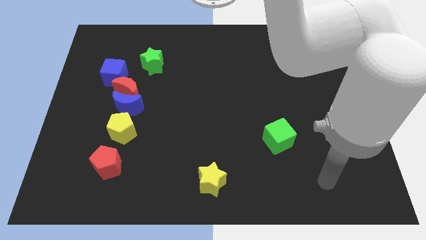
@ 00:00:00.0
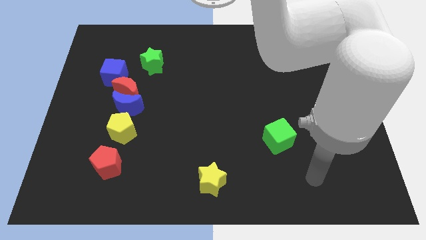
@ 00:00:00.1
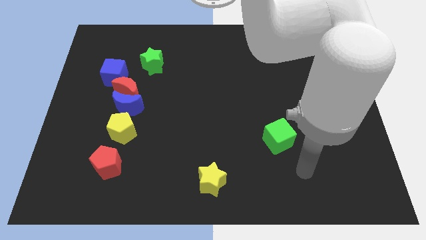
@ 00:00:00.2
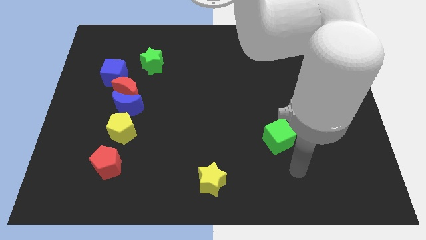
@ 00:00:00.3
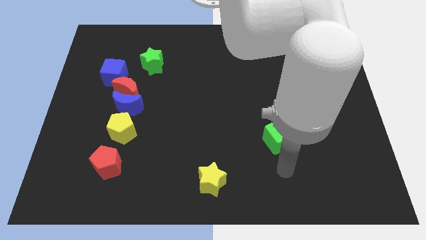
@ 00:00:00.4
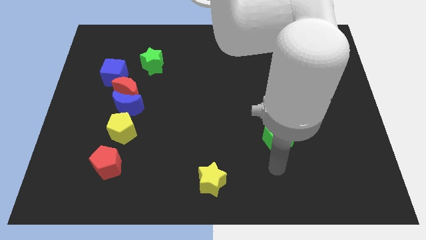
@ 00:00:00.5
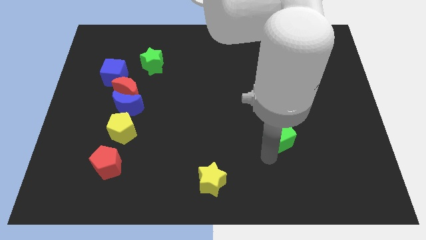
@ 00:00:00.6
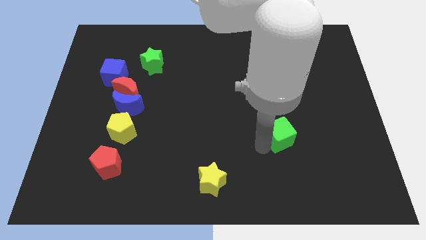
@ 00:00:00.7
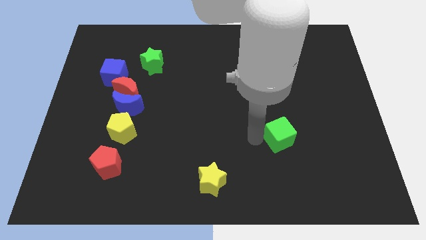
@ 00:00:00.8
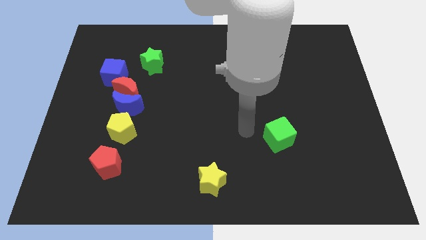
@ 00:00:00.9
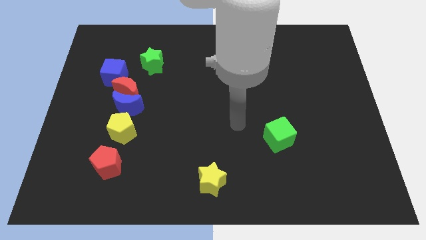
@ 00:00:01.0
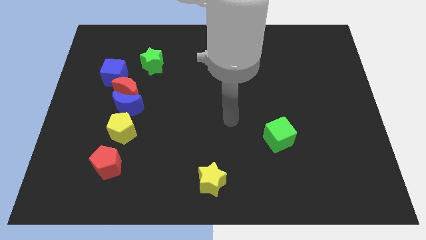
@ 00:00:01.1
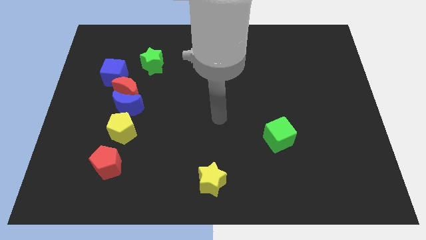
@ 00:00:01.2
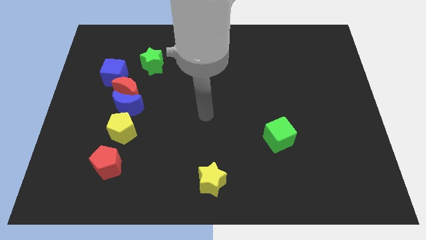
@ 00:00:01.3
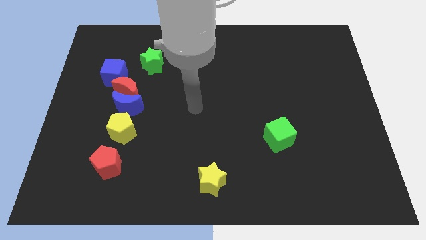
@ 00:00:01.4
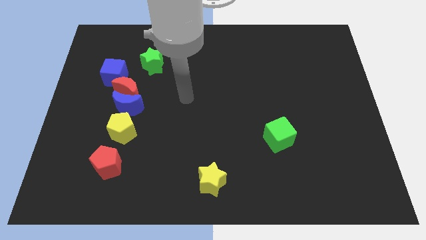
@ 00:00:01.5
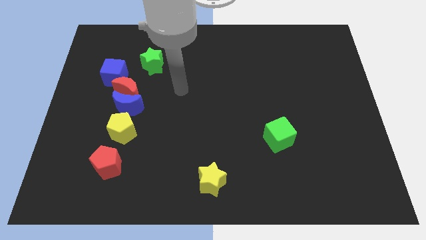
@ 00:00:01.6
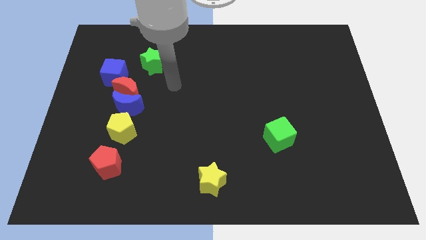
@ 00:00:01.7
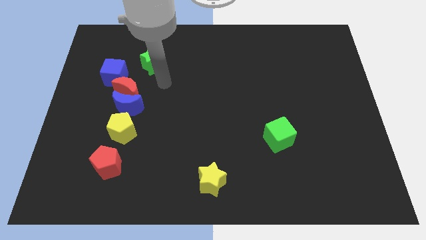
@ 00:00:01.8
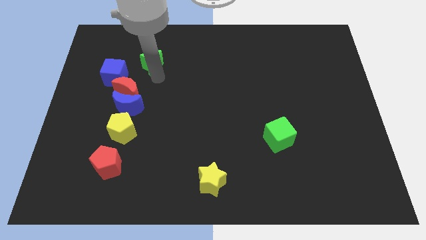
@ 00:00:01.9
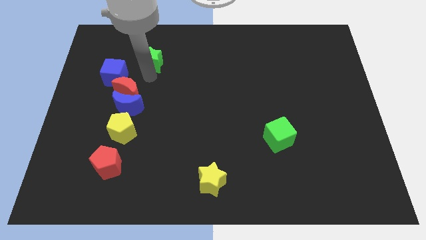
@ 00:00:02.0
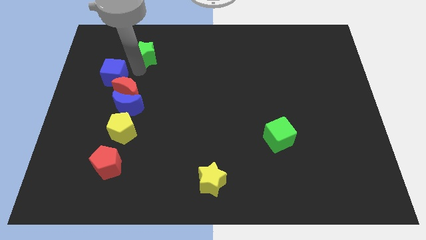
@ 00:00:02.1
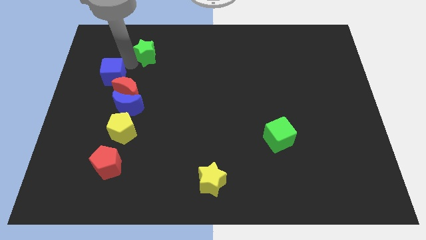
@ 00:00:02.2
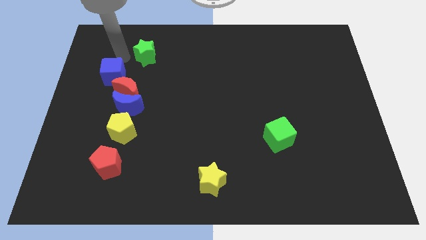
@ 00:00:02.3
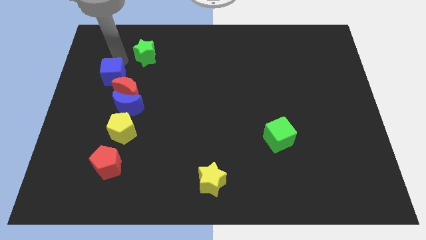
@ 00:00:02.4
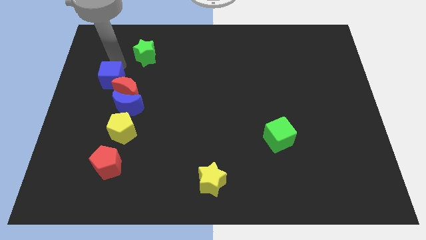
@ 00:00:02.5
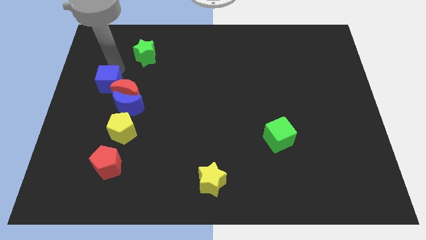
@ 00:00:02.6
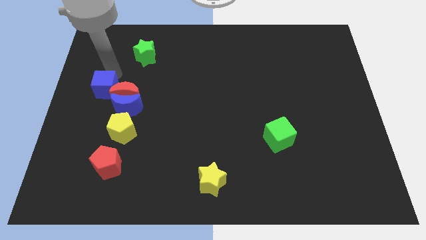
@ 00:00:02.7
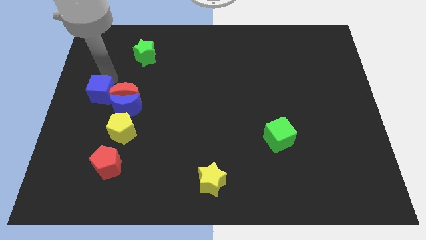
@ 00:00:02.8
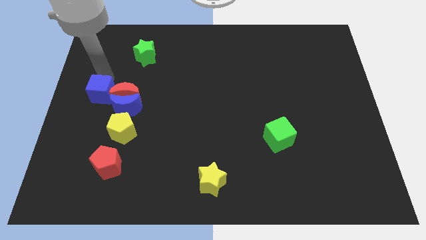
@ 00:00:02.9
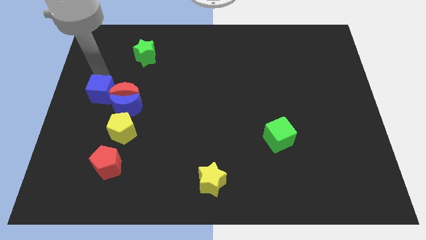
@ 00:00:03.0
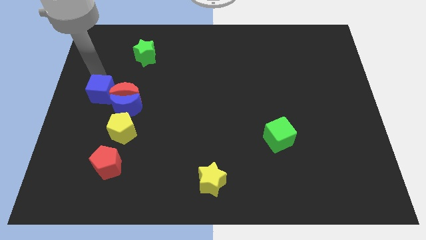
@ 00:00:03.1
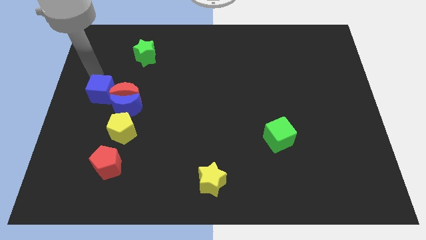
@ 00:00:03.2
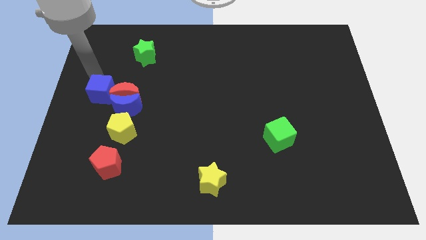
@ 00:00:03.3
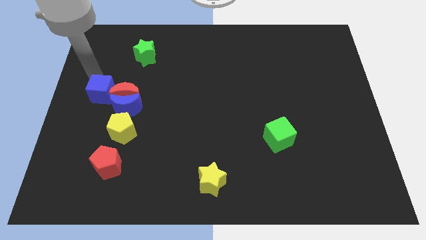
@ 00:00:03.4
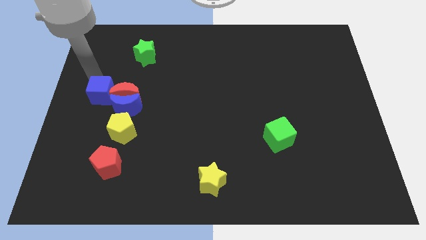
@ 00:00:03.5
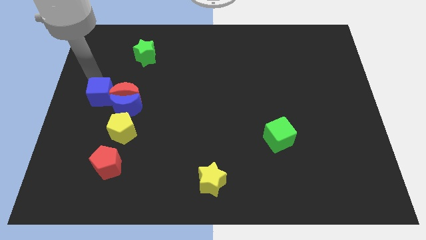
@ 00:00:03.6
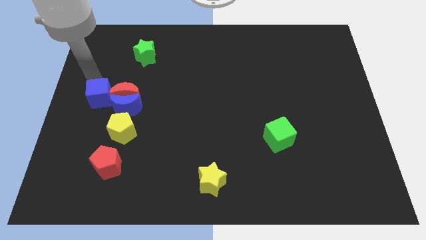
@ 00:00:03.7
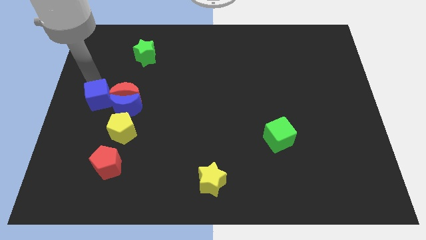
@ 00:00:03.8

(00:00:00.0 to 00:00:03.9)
push the blue cube somewhat downwards

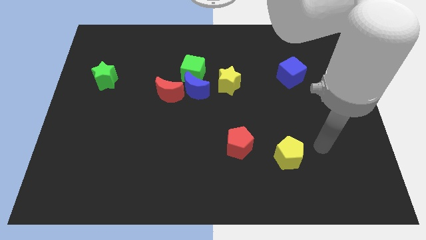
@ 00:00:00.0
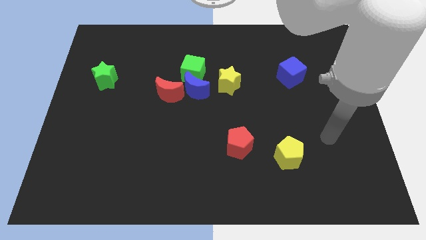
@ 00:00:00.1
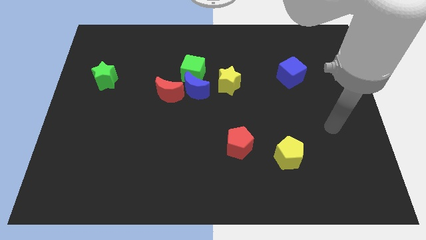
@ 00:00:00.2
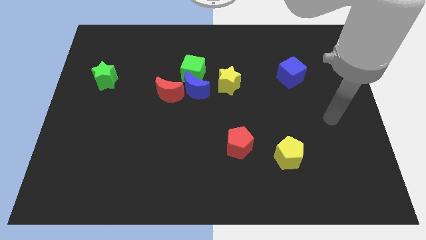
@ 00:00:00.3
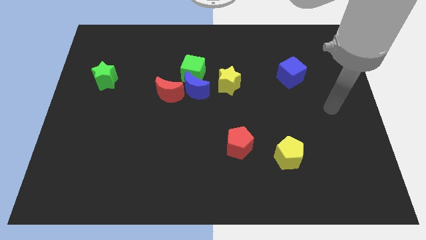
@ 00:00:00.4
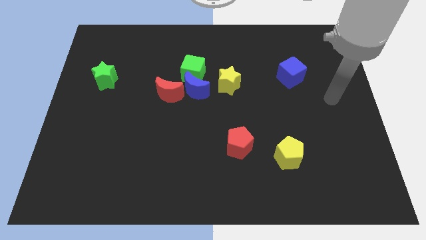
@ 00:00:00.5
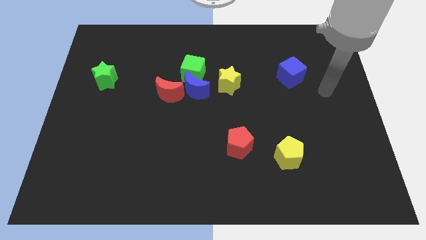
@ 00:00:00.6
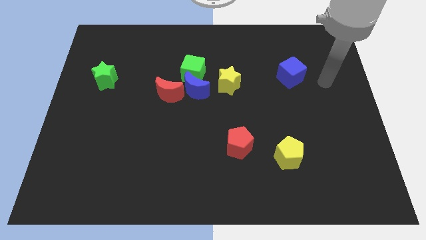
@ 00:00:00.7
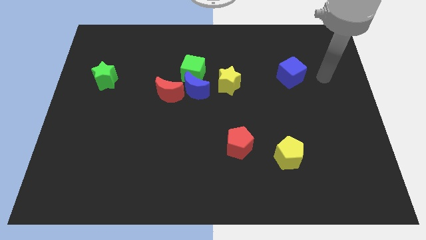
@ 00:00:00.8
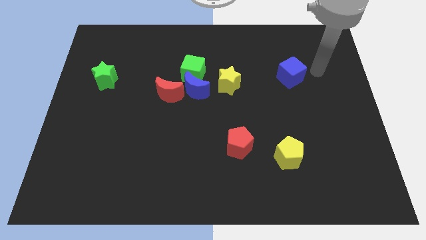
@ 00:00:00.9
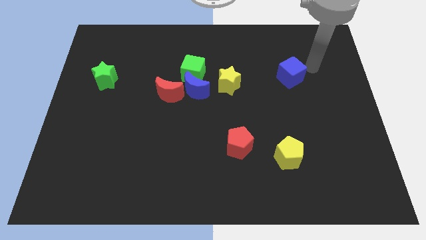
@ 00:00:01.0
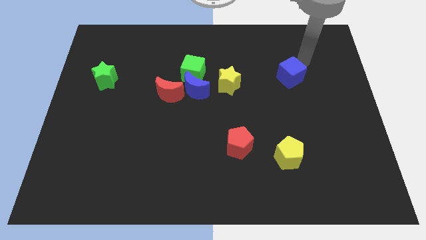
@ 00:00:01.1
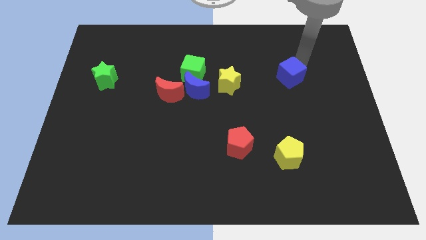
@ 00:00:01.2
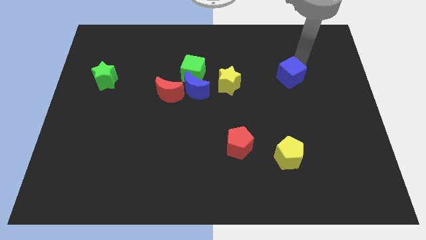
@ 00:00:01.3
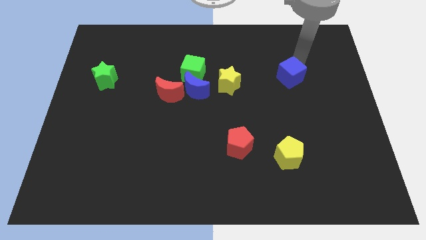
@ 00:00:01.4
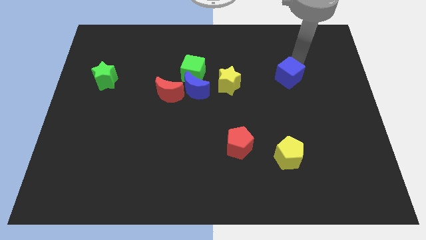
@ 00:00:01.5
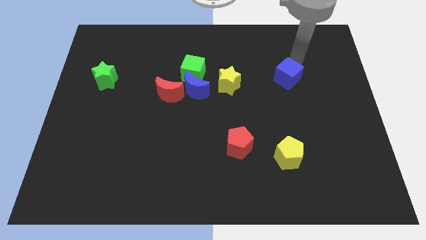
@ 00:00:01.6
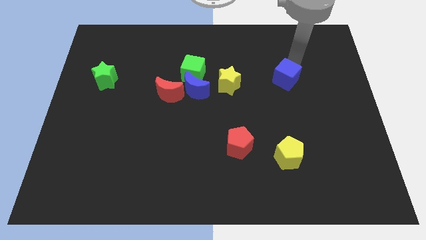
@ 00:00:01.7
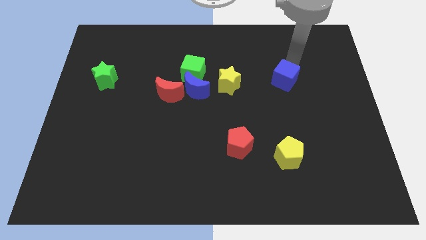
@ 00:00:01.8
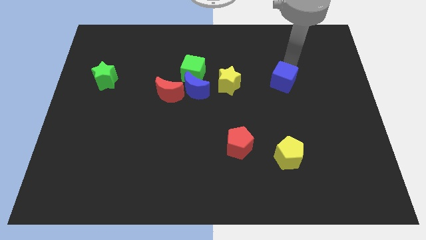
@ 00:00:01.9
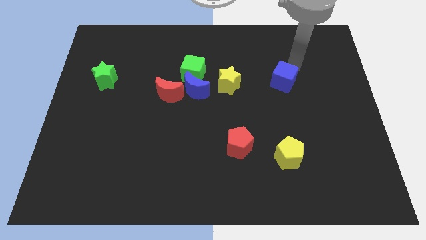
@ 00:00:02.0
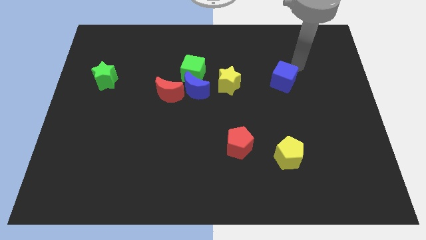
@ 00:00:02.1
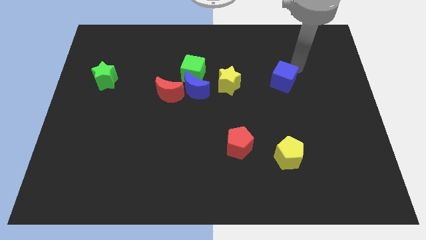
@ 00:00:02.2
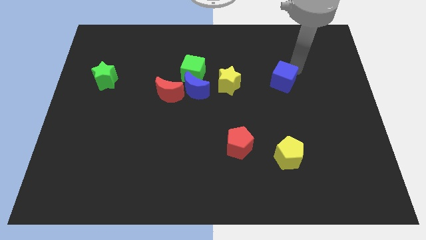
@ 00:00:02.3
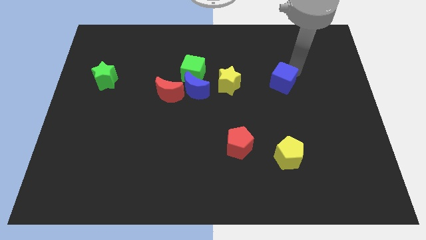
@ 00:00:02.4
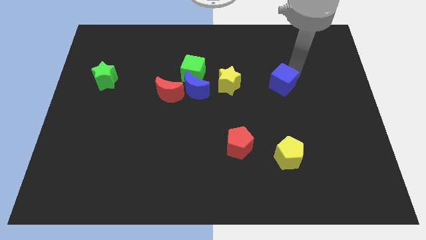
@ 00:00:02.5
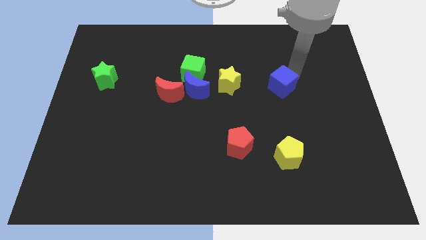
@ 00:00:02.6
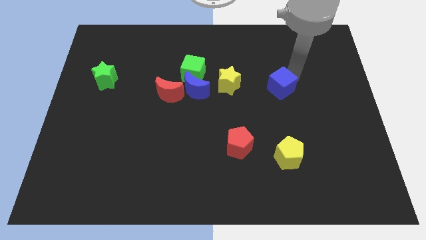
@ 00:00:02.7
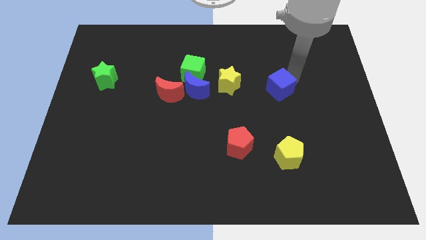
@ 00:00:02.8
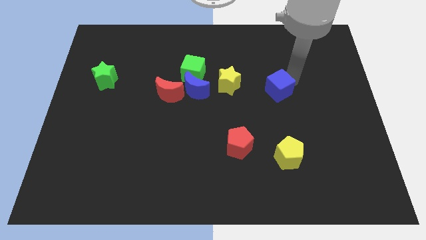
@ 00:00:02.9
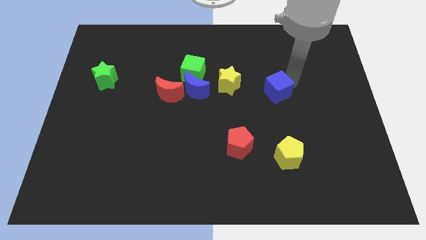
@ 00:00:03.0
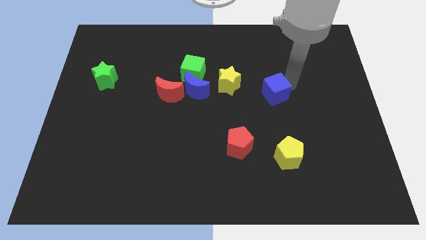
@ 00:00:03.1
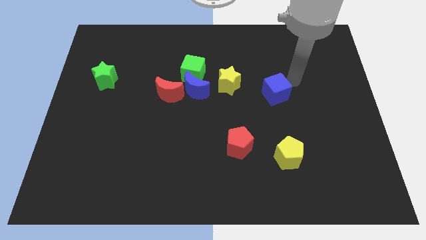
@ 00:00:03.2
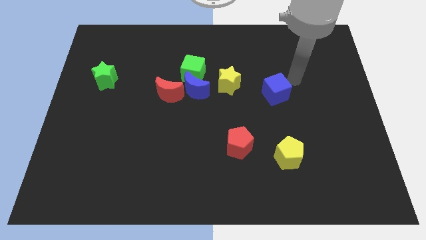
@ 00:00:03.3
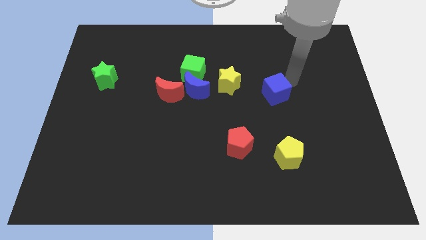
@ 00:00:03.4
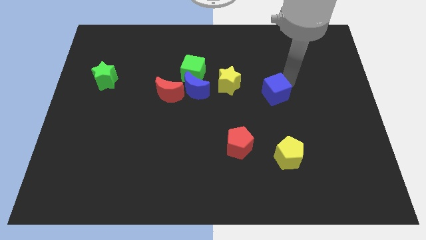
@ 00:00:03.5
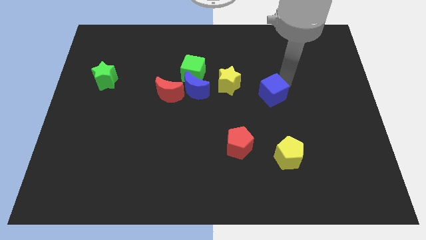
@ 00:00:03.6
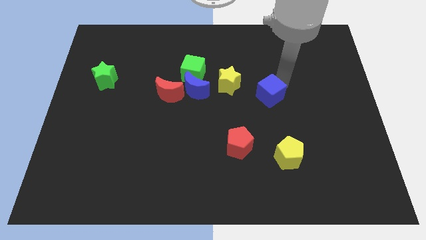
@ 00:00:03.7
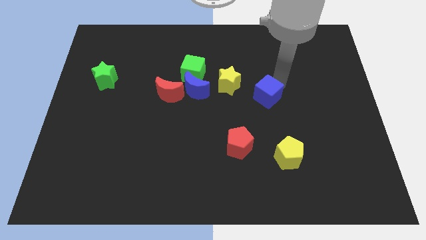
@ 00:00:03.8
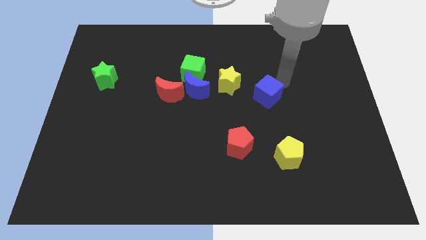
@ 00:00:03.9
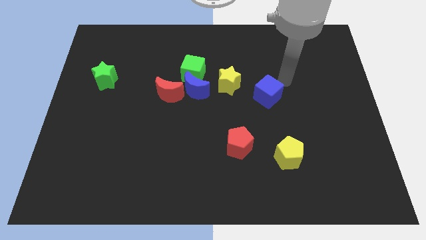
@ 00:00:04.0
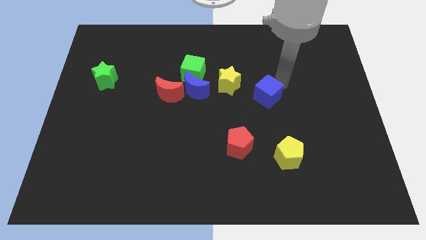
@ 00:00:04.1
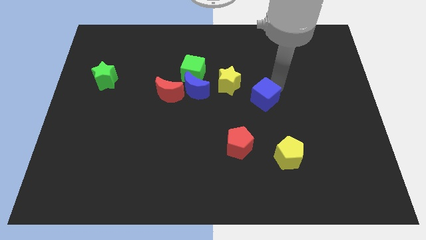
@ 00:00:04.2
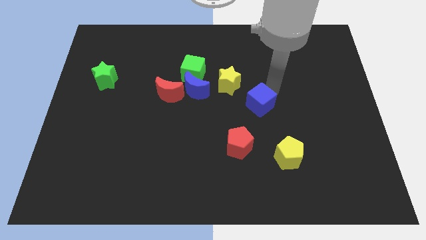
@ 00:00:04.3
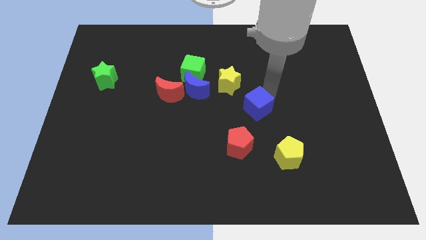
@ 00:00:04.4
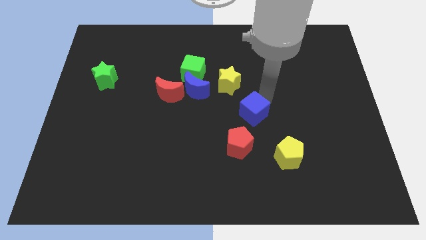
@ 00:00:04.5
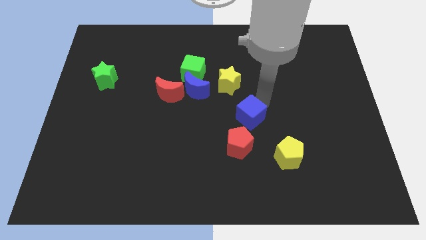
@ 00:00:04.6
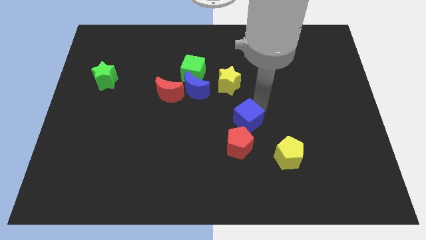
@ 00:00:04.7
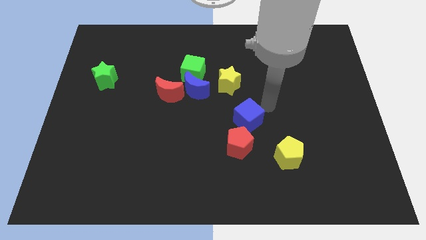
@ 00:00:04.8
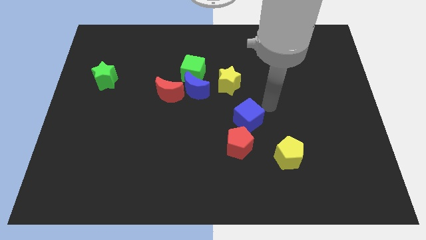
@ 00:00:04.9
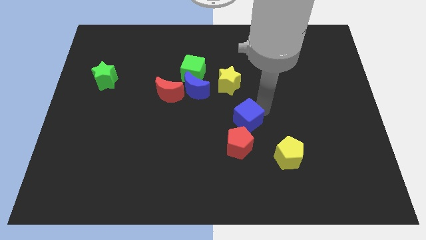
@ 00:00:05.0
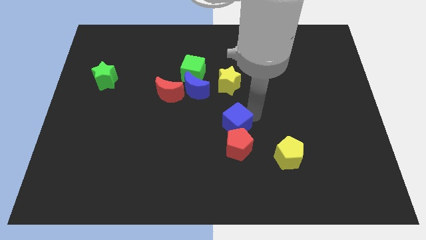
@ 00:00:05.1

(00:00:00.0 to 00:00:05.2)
push the blue cube down and left diagonally
